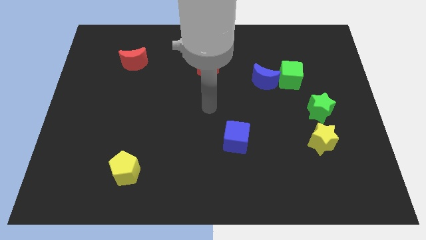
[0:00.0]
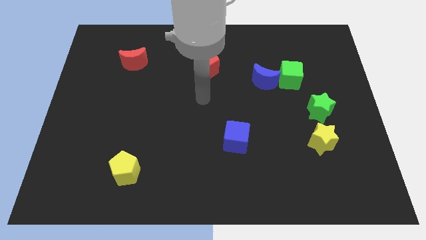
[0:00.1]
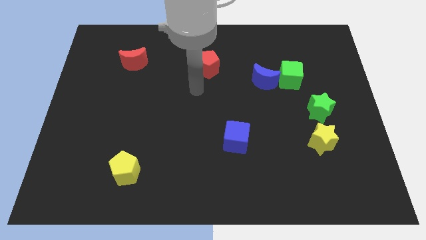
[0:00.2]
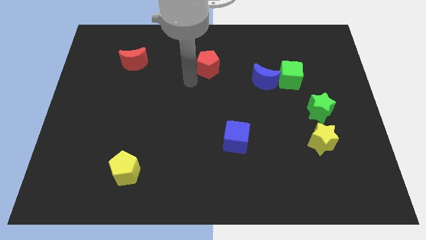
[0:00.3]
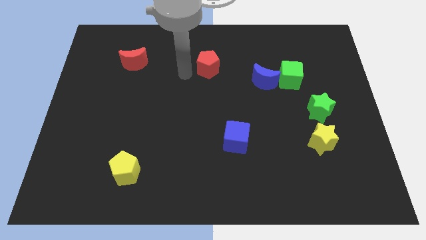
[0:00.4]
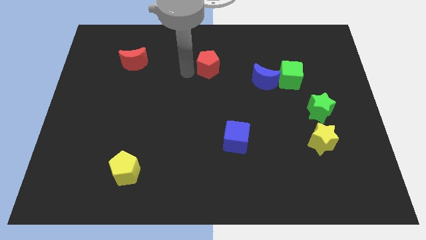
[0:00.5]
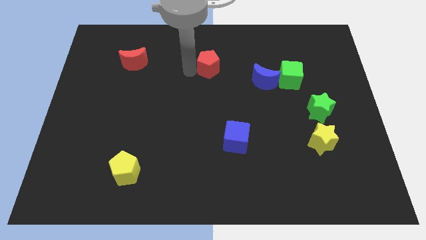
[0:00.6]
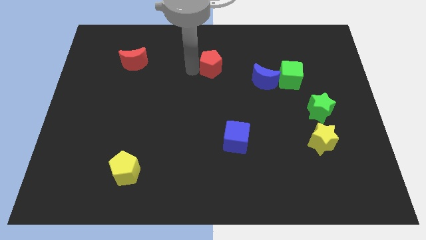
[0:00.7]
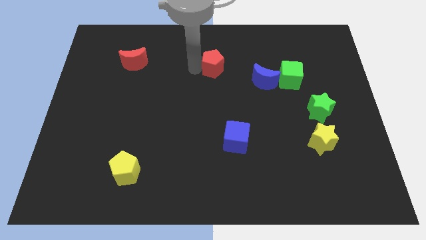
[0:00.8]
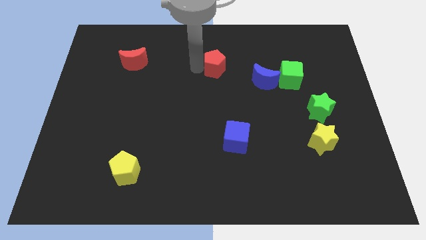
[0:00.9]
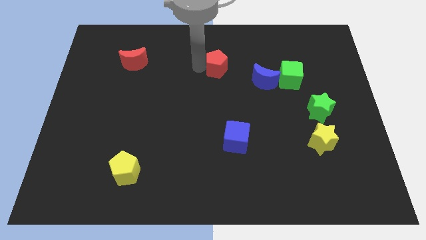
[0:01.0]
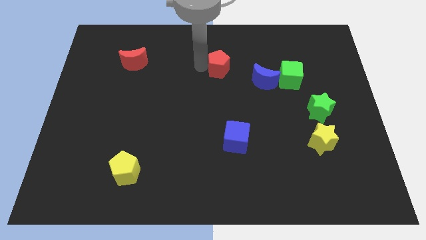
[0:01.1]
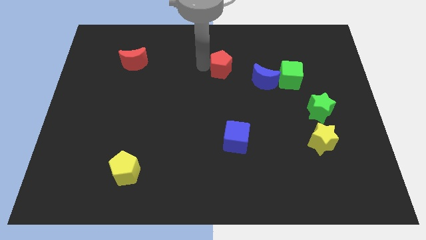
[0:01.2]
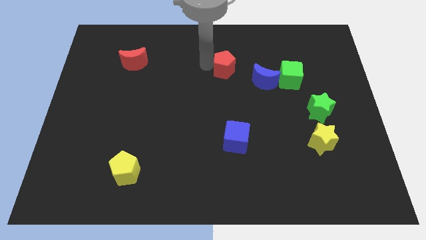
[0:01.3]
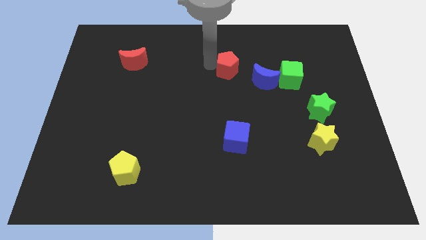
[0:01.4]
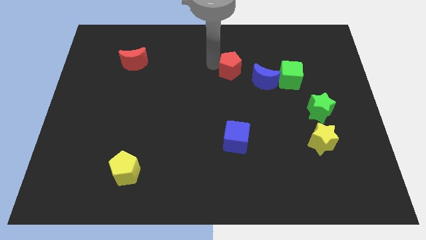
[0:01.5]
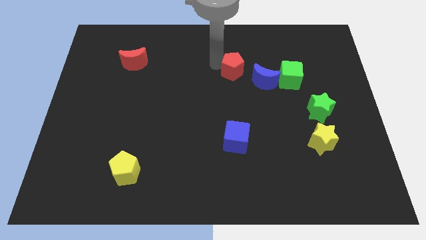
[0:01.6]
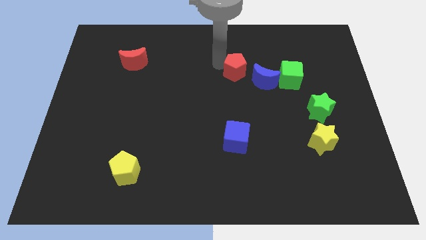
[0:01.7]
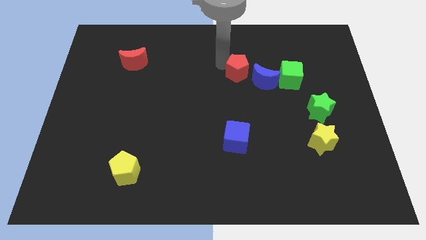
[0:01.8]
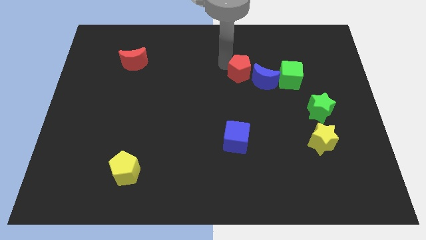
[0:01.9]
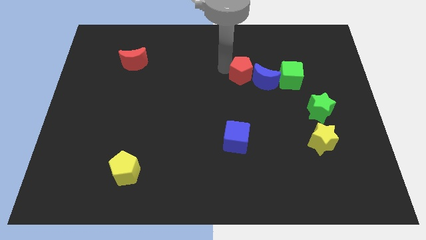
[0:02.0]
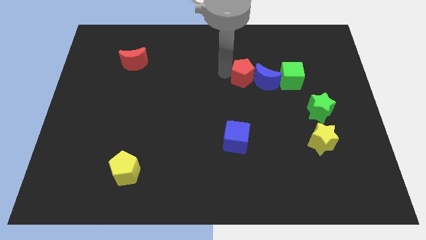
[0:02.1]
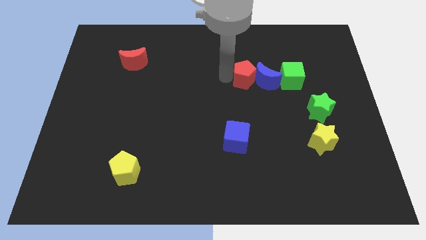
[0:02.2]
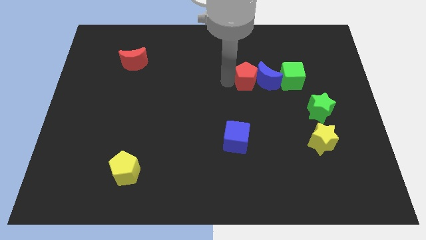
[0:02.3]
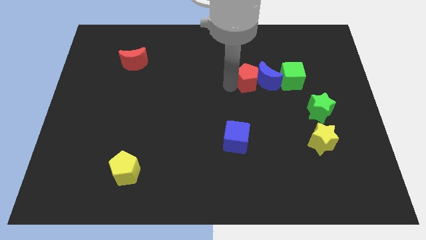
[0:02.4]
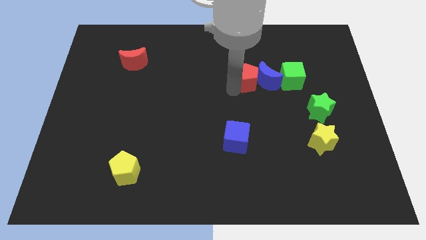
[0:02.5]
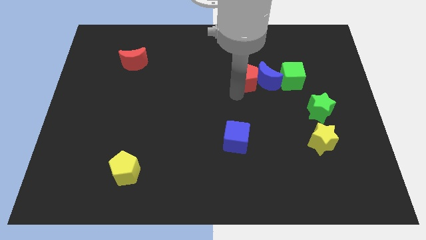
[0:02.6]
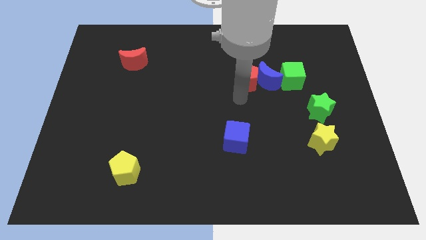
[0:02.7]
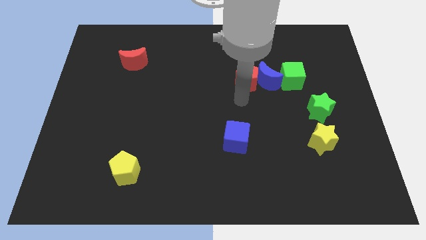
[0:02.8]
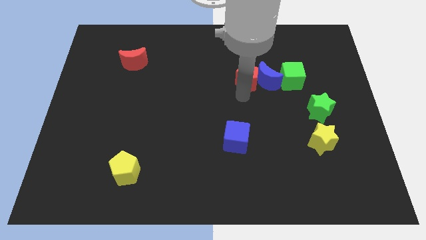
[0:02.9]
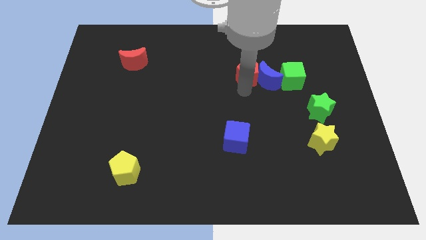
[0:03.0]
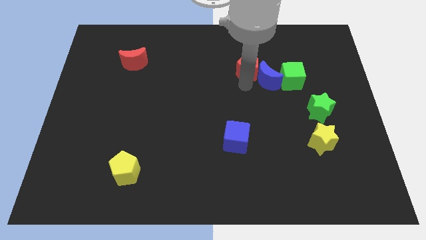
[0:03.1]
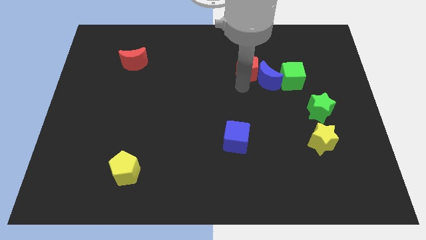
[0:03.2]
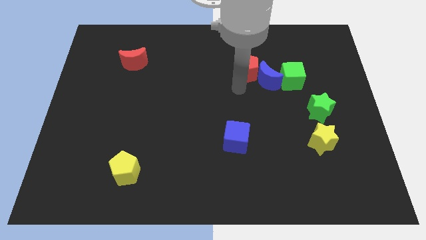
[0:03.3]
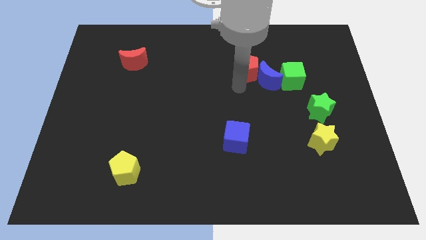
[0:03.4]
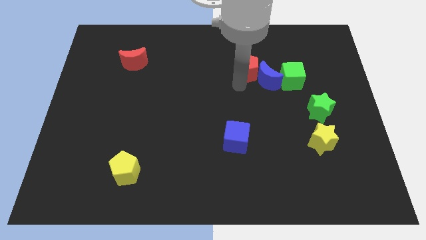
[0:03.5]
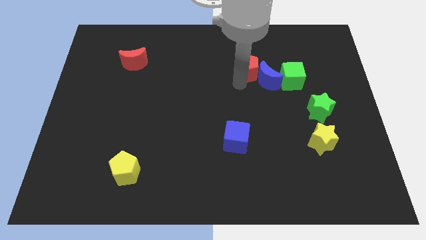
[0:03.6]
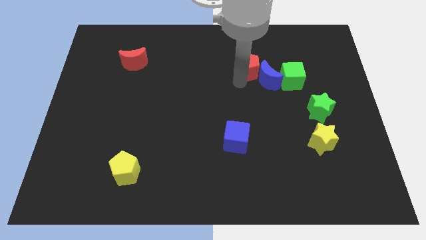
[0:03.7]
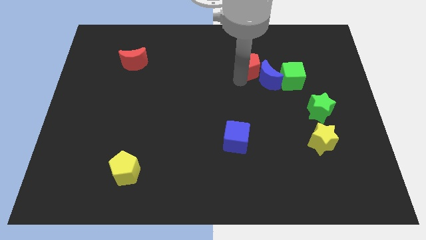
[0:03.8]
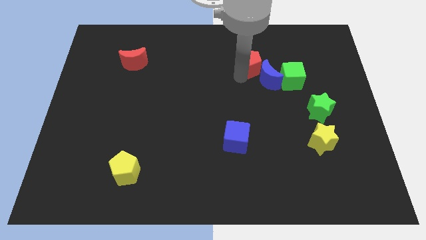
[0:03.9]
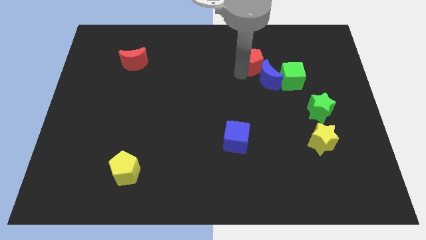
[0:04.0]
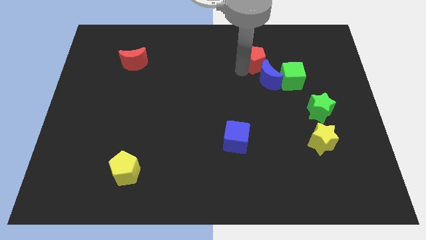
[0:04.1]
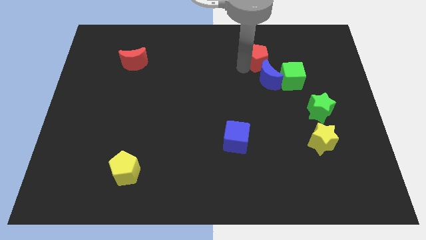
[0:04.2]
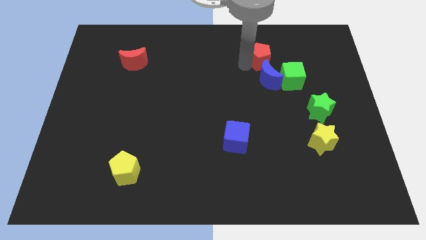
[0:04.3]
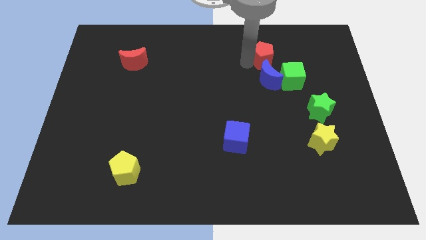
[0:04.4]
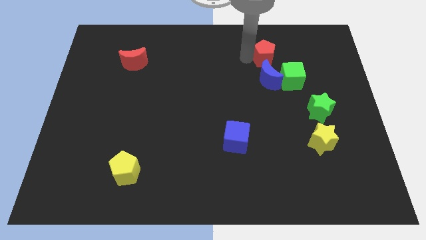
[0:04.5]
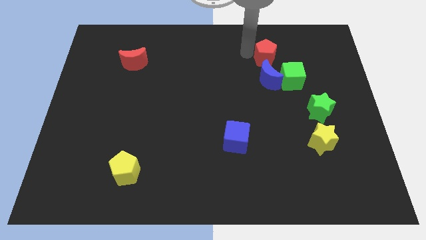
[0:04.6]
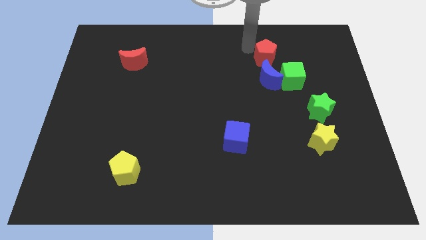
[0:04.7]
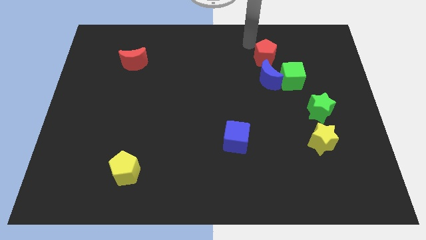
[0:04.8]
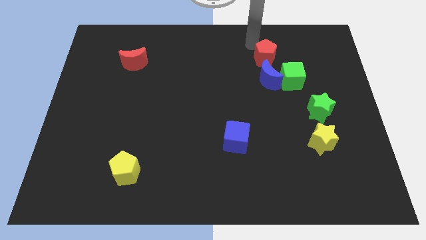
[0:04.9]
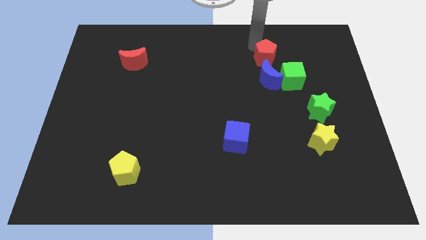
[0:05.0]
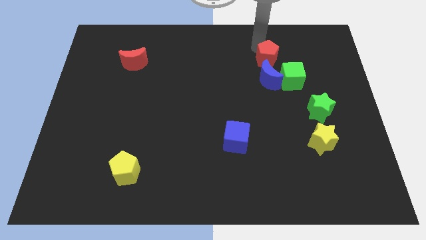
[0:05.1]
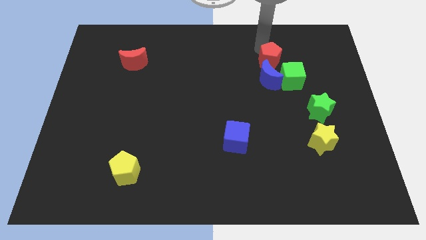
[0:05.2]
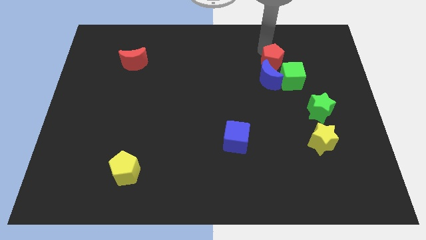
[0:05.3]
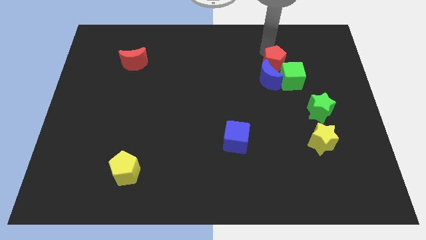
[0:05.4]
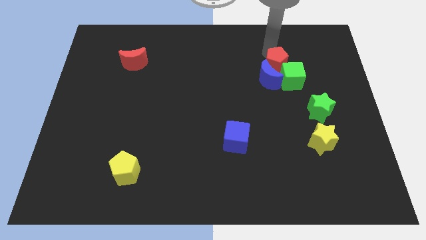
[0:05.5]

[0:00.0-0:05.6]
push the red pentagon close to the green cube

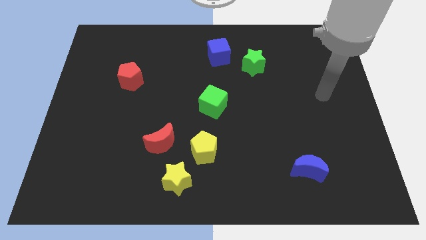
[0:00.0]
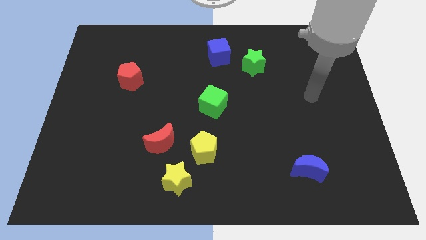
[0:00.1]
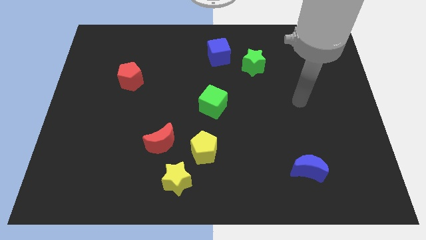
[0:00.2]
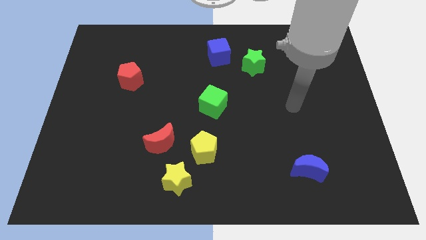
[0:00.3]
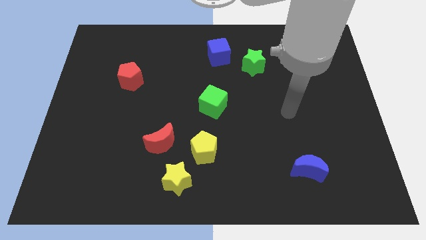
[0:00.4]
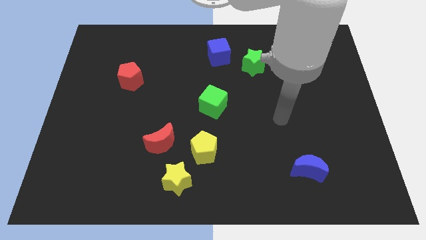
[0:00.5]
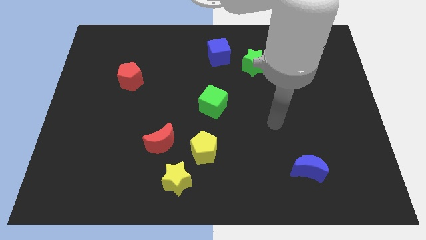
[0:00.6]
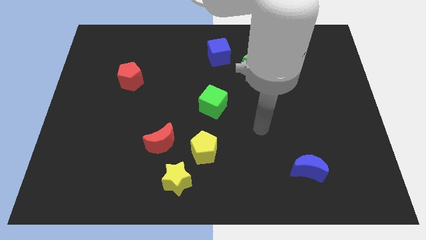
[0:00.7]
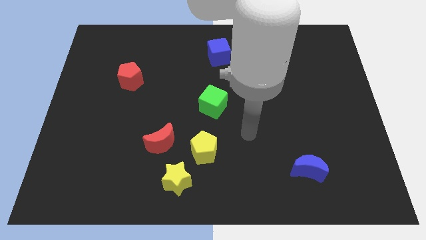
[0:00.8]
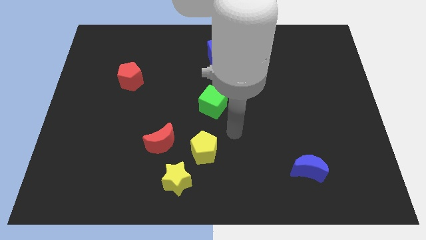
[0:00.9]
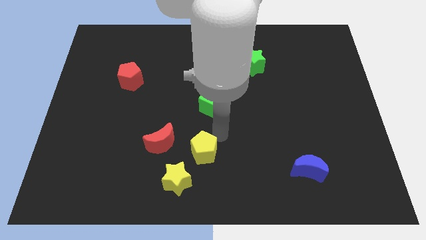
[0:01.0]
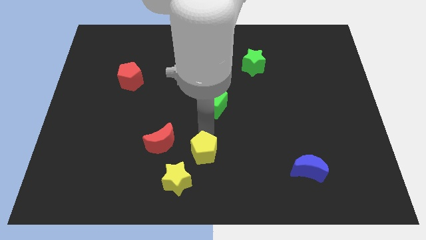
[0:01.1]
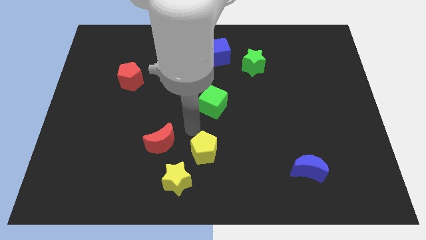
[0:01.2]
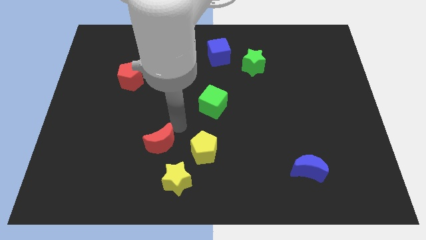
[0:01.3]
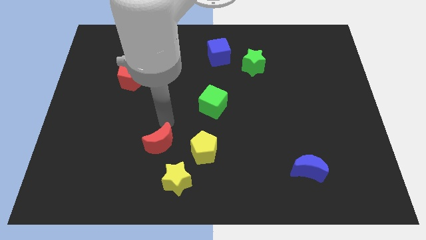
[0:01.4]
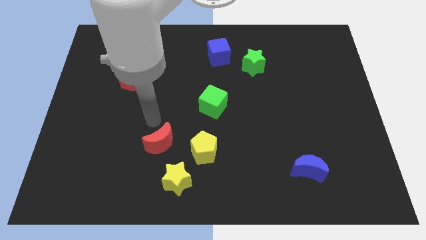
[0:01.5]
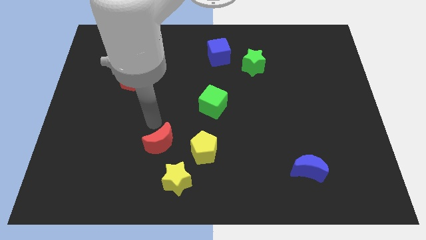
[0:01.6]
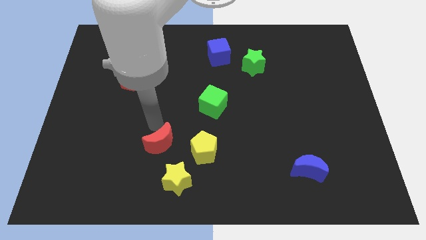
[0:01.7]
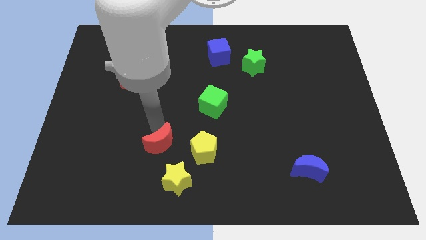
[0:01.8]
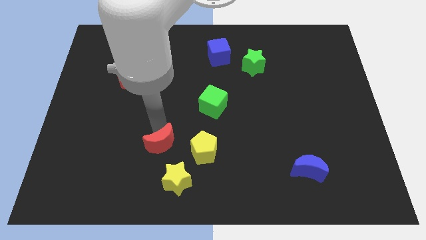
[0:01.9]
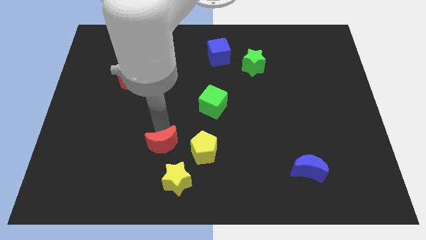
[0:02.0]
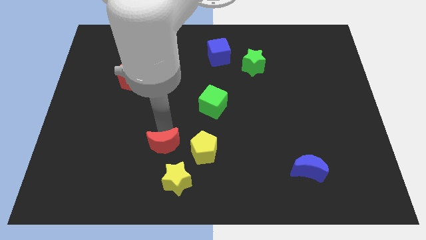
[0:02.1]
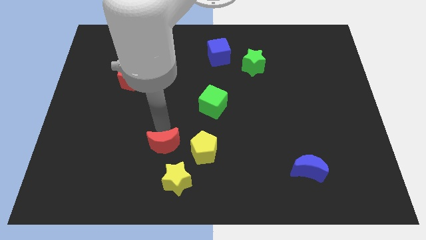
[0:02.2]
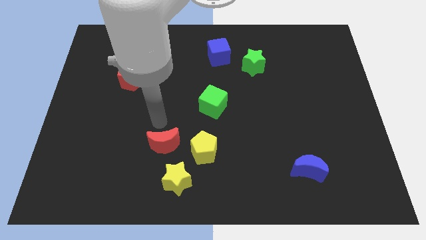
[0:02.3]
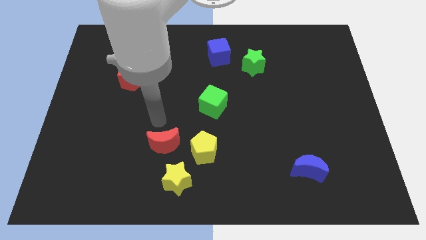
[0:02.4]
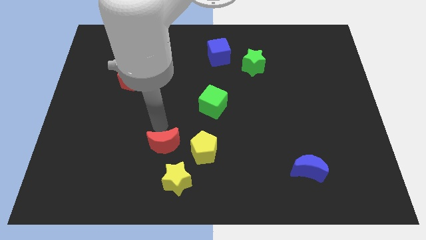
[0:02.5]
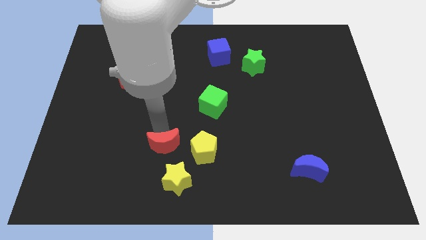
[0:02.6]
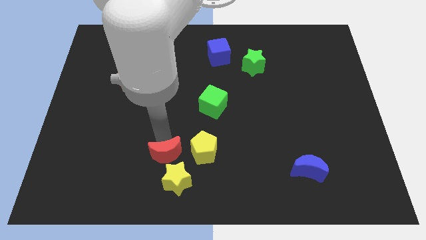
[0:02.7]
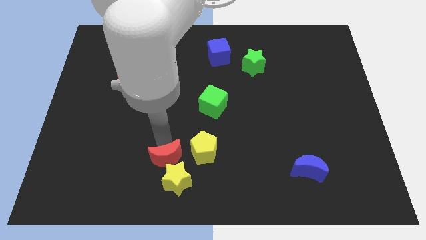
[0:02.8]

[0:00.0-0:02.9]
push the red moon next to the yellow star
